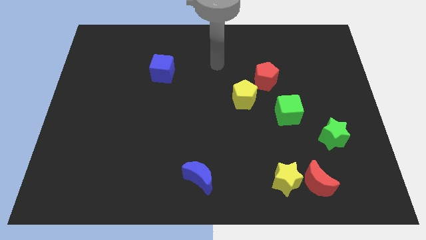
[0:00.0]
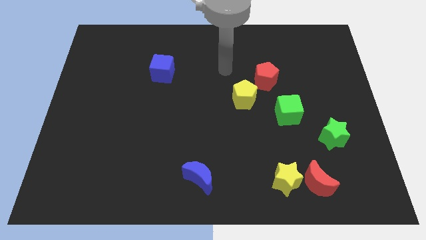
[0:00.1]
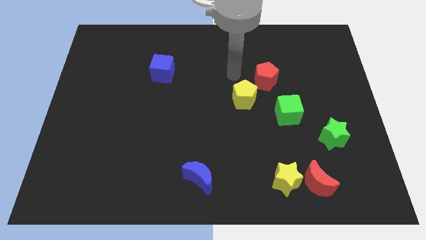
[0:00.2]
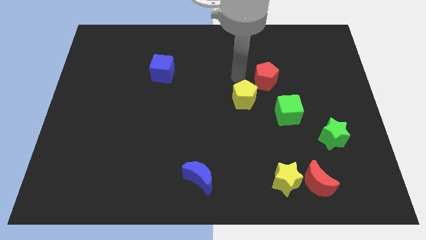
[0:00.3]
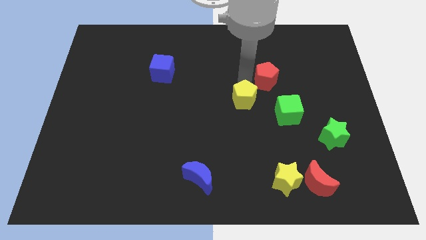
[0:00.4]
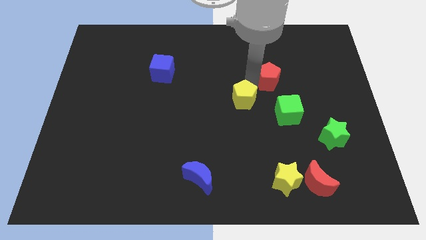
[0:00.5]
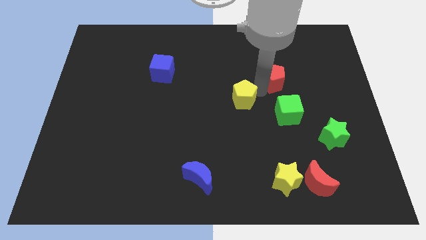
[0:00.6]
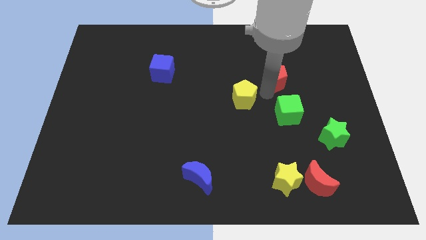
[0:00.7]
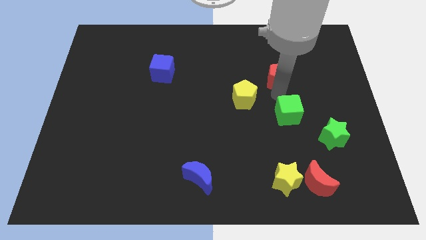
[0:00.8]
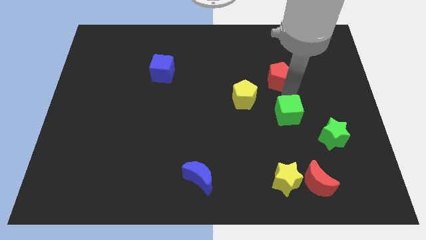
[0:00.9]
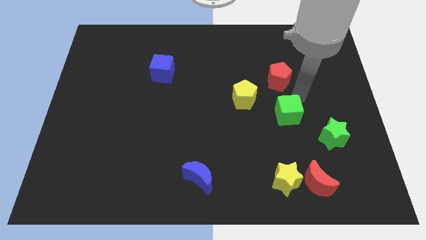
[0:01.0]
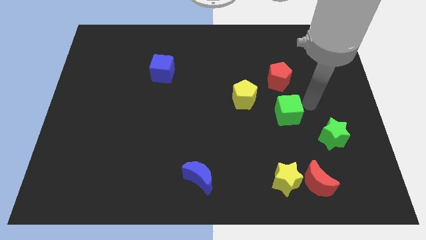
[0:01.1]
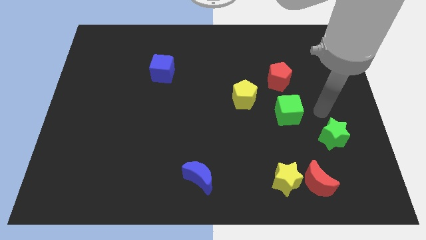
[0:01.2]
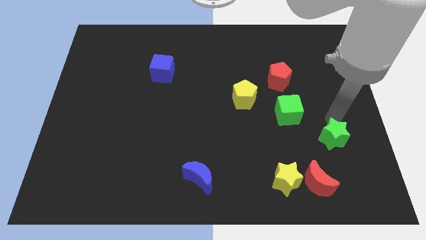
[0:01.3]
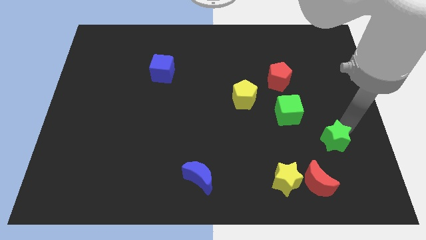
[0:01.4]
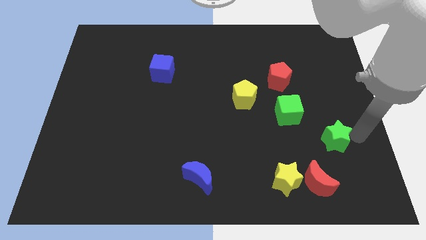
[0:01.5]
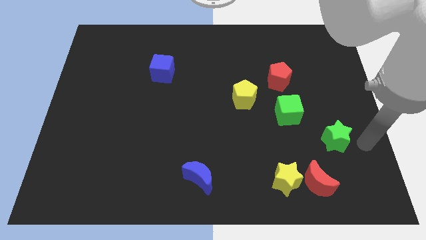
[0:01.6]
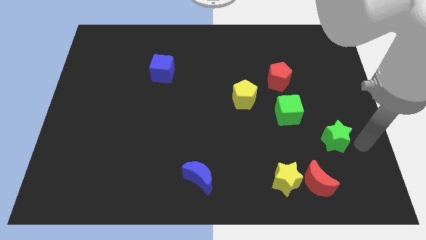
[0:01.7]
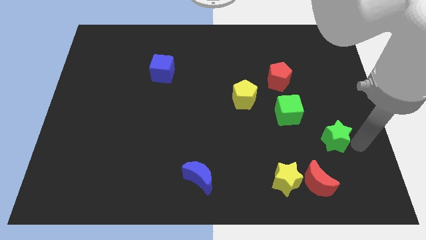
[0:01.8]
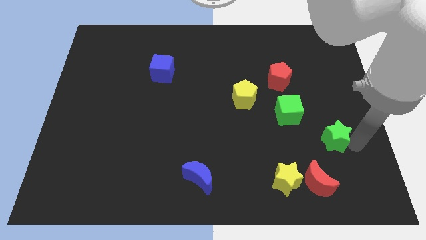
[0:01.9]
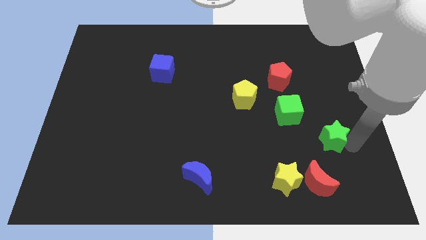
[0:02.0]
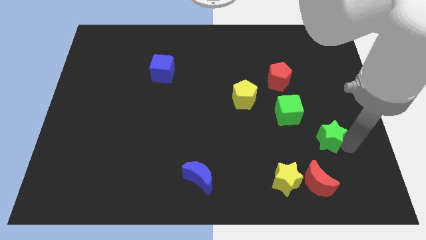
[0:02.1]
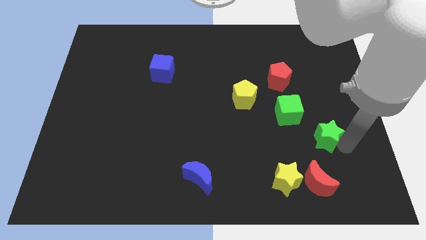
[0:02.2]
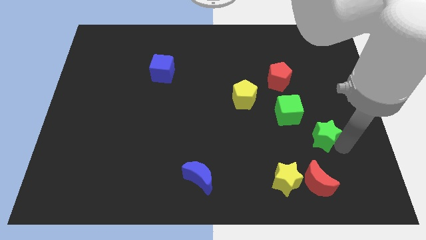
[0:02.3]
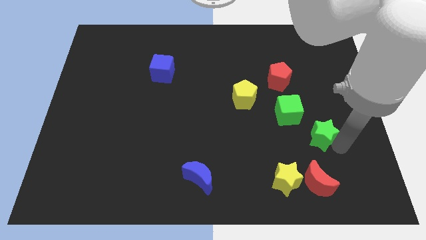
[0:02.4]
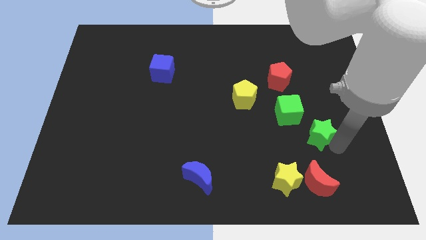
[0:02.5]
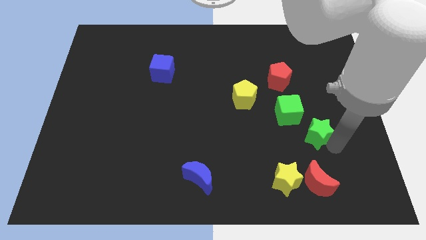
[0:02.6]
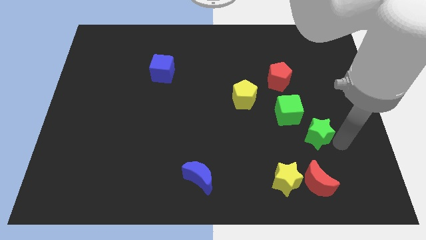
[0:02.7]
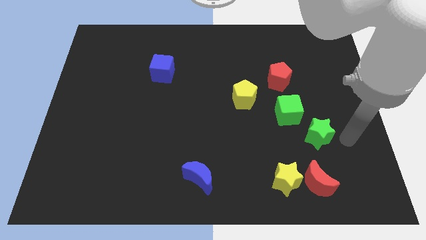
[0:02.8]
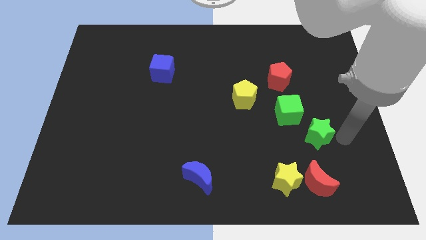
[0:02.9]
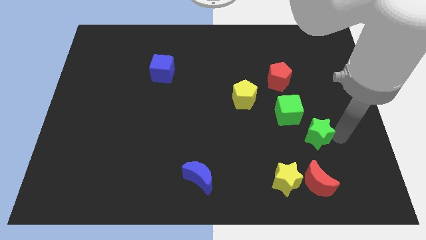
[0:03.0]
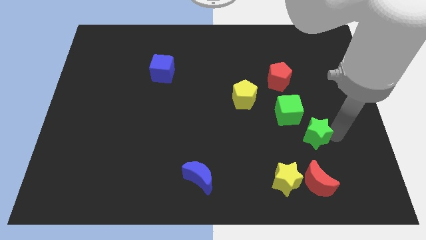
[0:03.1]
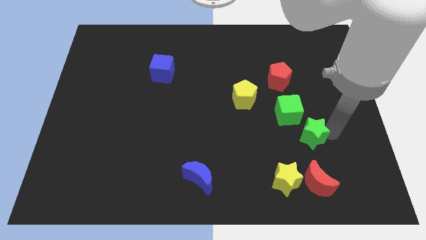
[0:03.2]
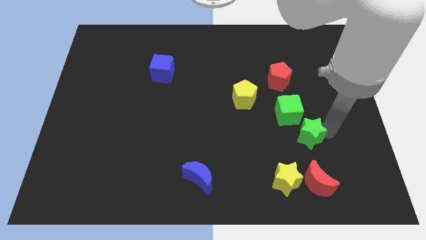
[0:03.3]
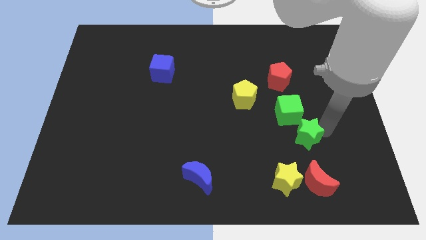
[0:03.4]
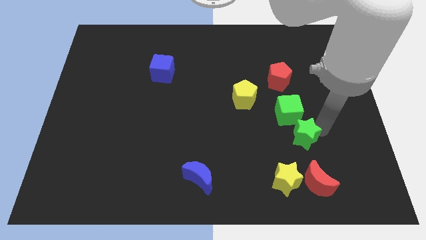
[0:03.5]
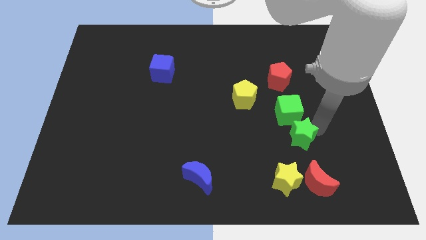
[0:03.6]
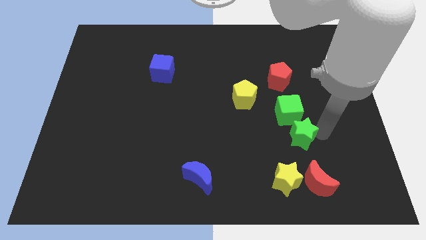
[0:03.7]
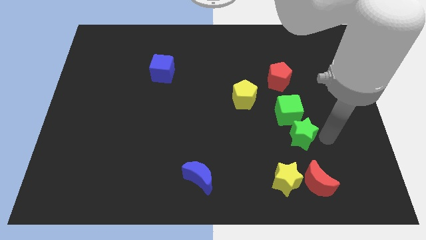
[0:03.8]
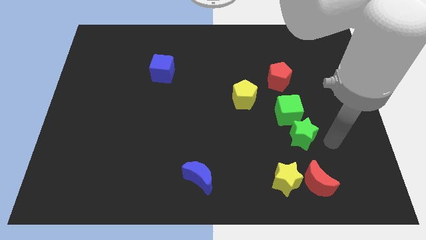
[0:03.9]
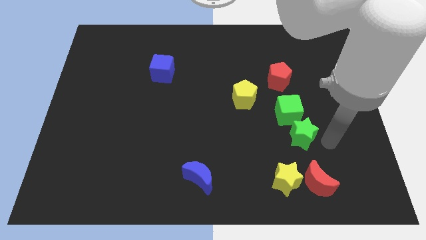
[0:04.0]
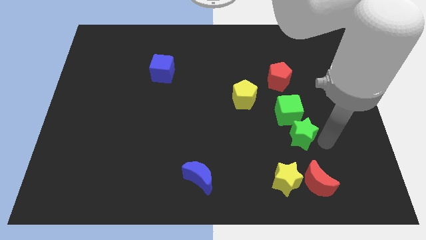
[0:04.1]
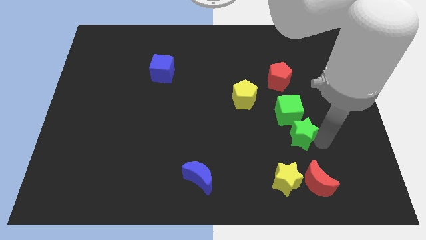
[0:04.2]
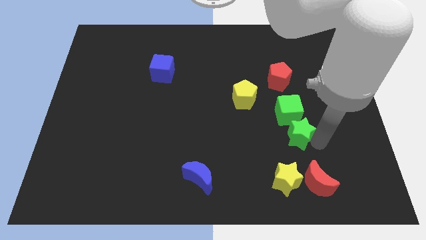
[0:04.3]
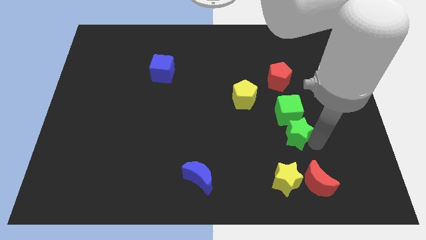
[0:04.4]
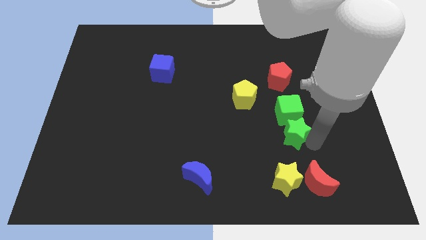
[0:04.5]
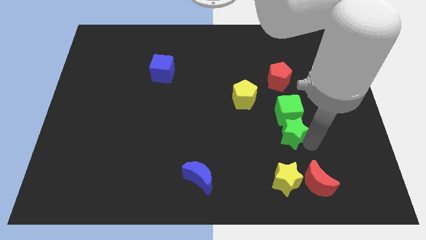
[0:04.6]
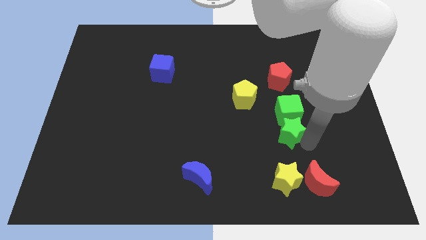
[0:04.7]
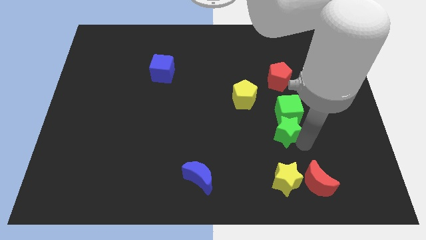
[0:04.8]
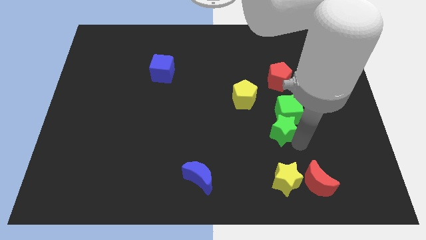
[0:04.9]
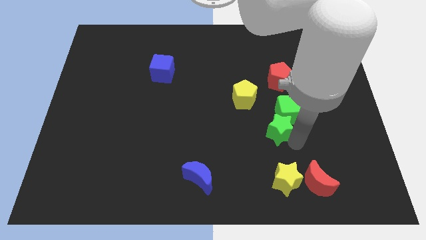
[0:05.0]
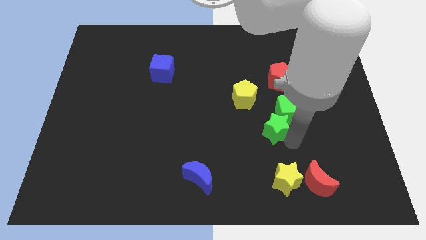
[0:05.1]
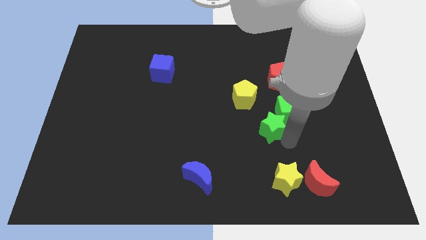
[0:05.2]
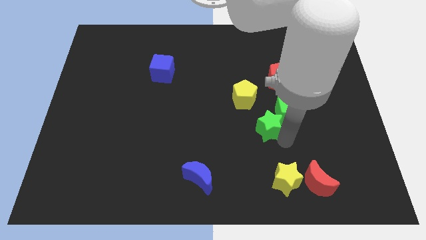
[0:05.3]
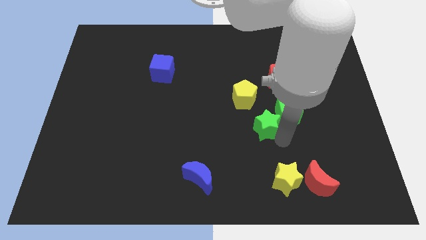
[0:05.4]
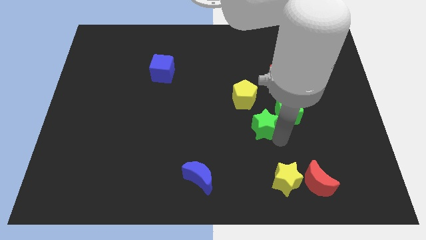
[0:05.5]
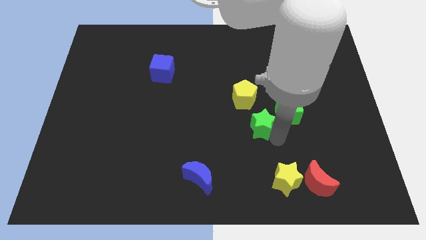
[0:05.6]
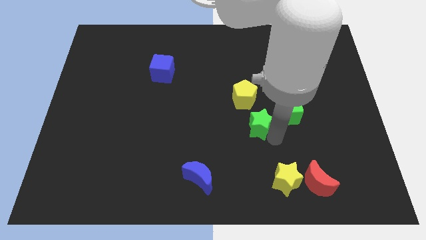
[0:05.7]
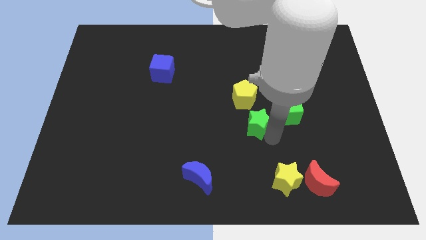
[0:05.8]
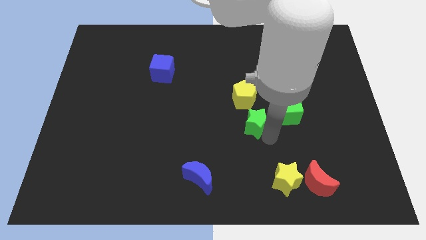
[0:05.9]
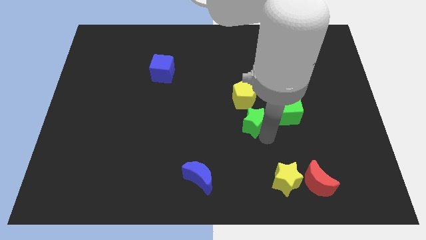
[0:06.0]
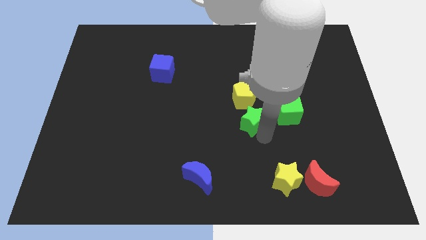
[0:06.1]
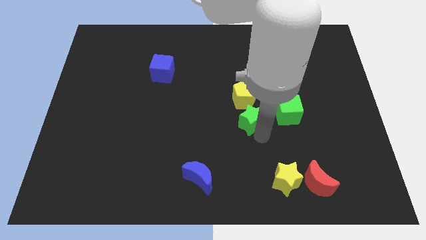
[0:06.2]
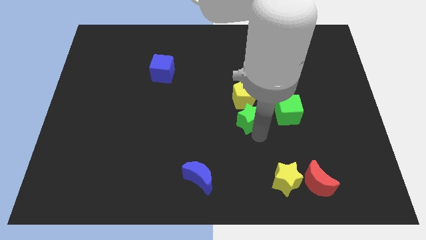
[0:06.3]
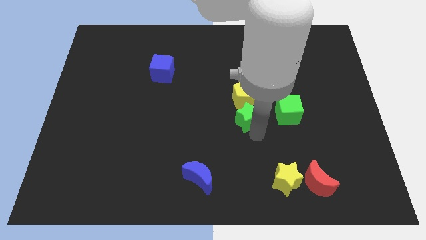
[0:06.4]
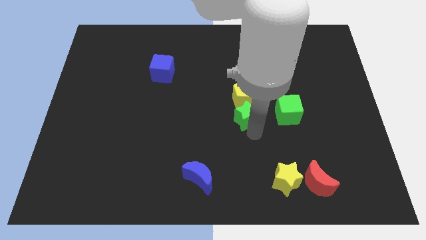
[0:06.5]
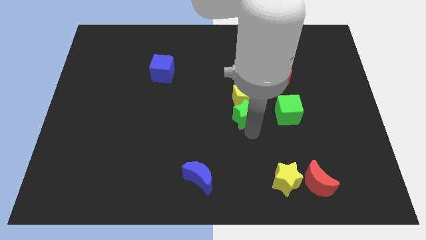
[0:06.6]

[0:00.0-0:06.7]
put the green star close to the yellow pentagon
